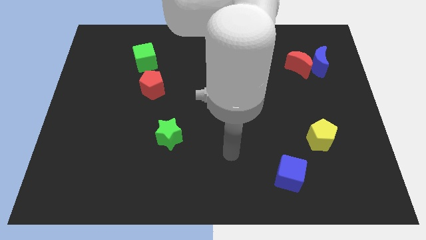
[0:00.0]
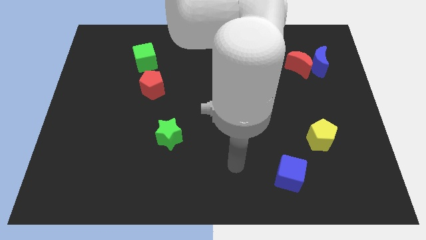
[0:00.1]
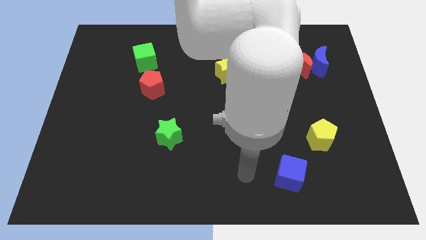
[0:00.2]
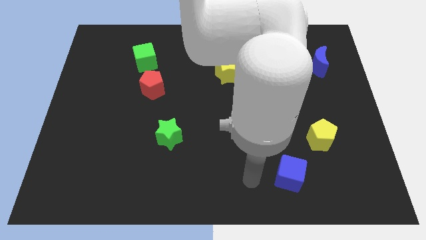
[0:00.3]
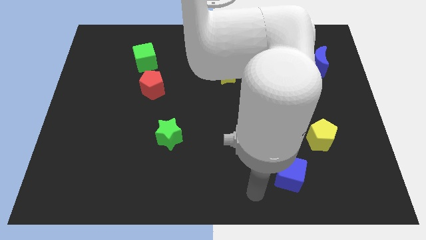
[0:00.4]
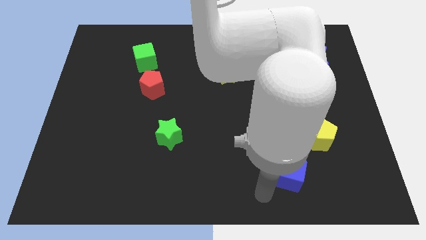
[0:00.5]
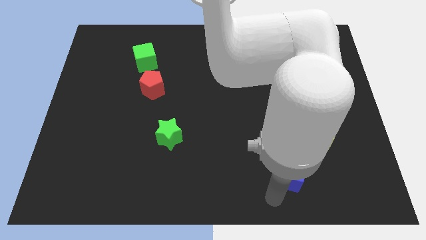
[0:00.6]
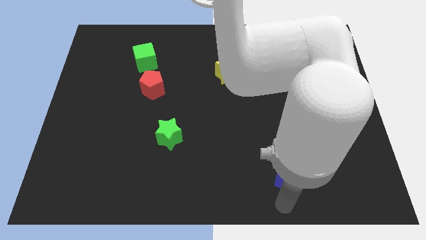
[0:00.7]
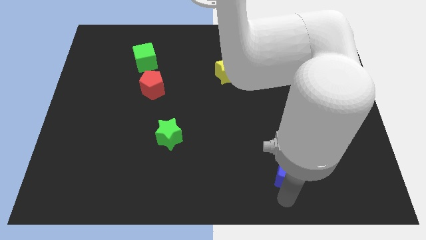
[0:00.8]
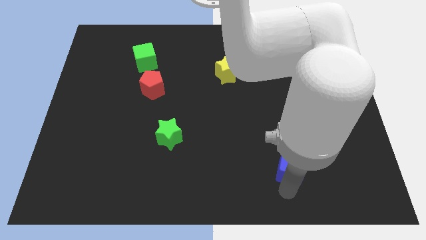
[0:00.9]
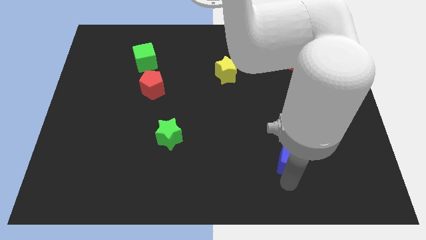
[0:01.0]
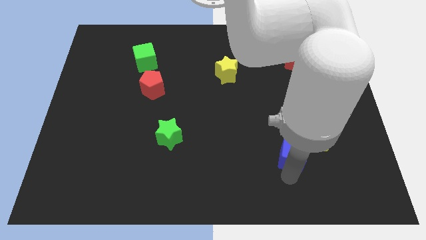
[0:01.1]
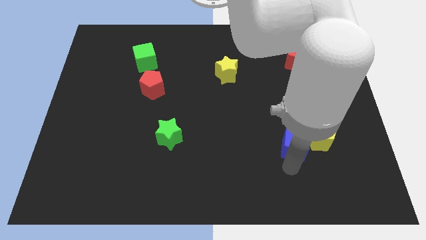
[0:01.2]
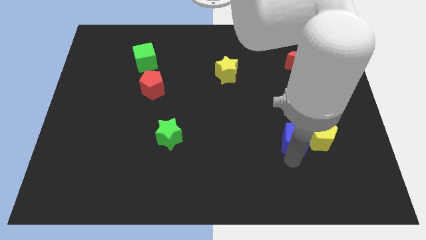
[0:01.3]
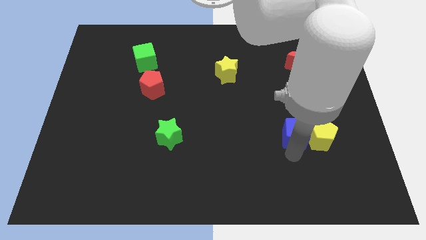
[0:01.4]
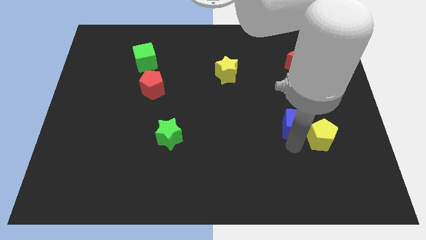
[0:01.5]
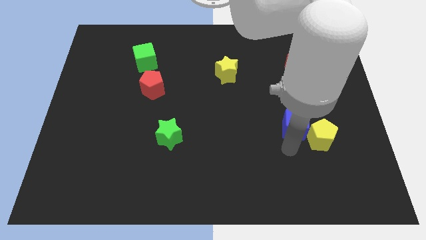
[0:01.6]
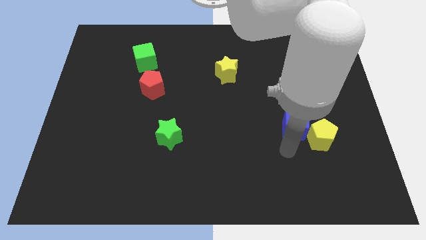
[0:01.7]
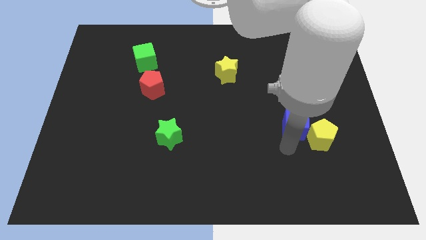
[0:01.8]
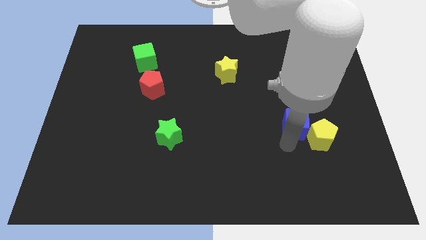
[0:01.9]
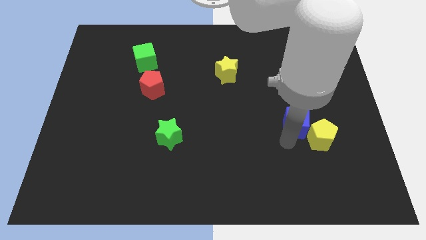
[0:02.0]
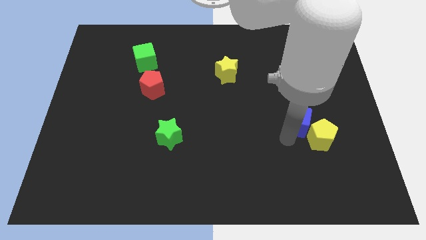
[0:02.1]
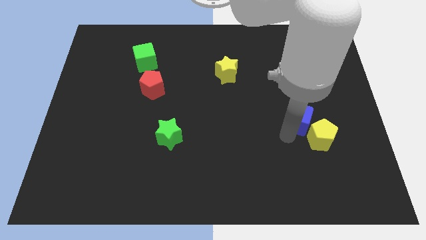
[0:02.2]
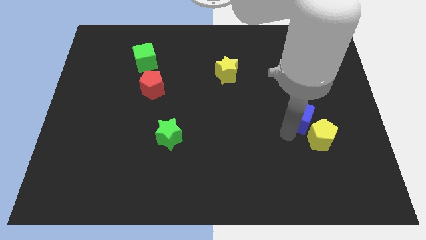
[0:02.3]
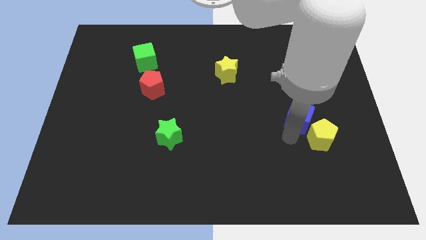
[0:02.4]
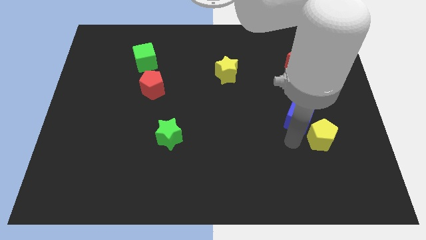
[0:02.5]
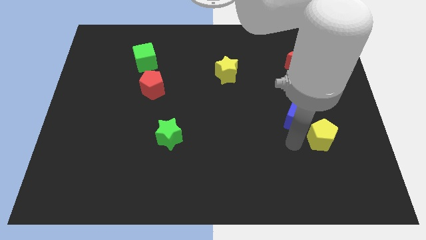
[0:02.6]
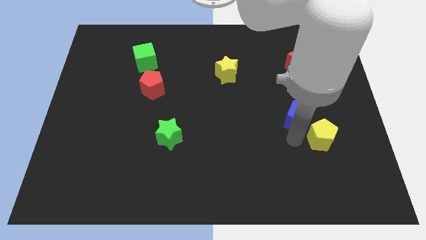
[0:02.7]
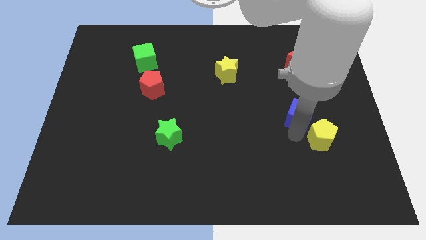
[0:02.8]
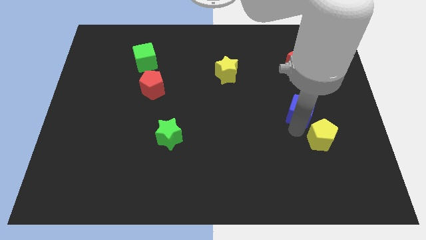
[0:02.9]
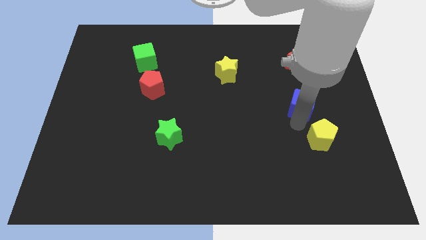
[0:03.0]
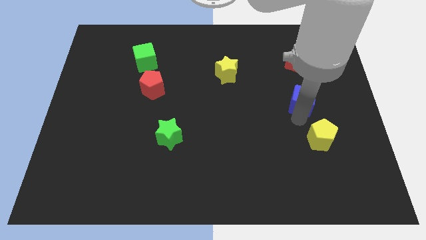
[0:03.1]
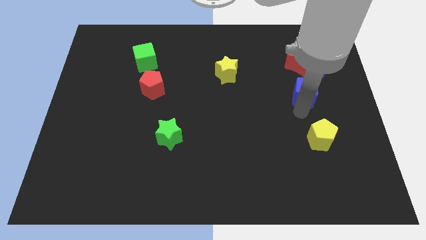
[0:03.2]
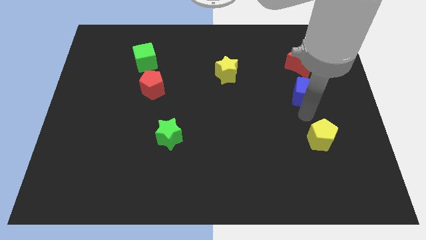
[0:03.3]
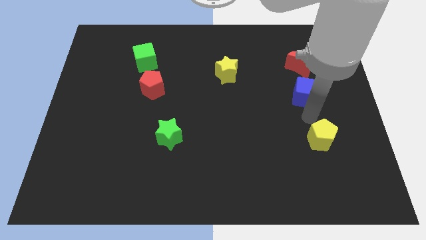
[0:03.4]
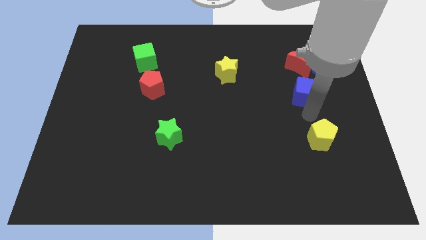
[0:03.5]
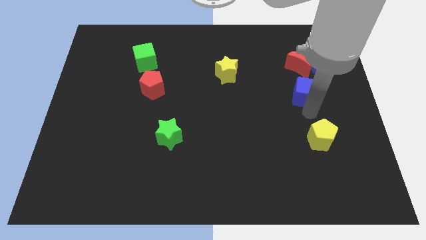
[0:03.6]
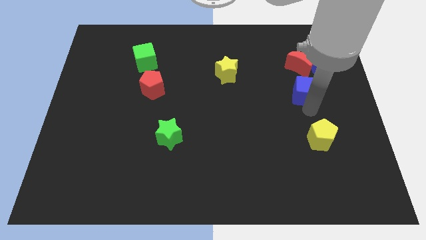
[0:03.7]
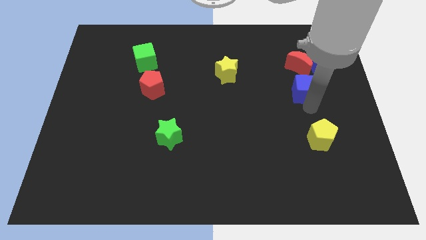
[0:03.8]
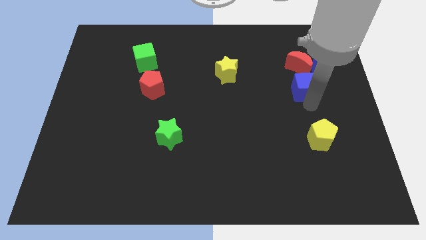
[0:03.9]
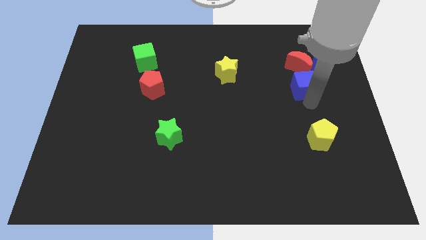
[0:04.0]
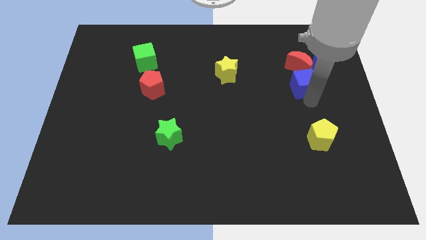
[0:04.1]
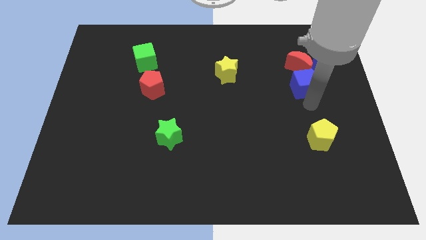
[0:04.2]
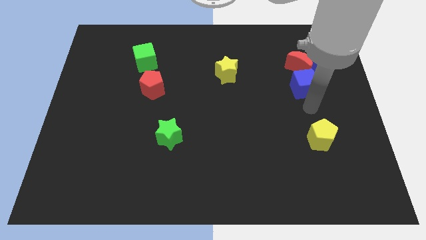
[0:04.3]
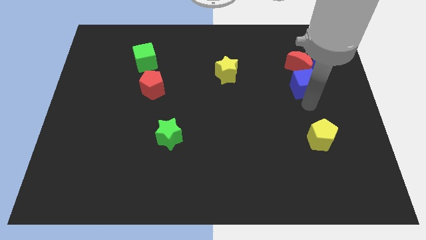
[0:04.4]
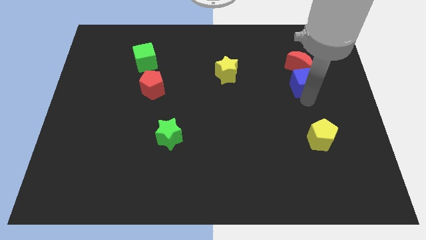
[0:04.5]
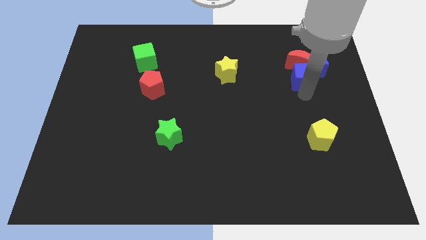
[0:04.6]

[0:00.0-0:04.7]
move the blue cube close to the red moon

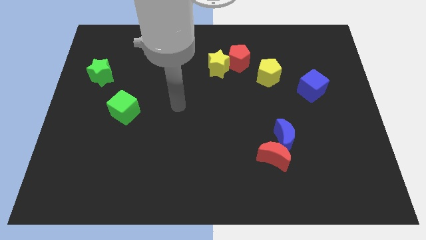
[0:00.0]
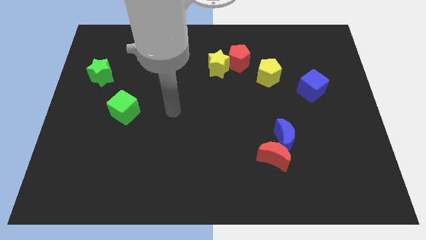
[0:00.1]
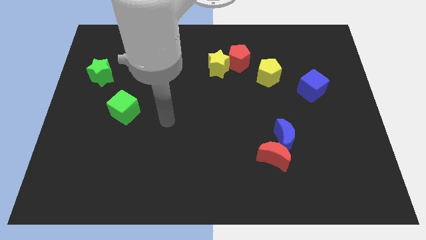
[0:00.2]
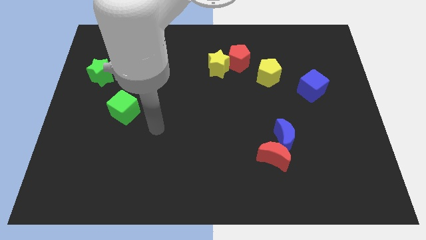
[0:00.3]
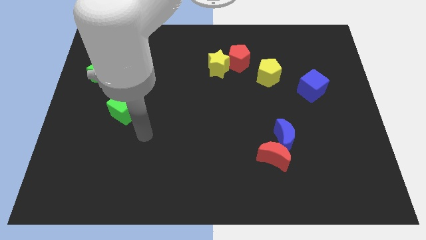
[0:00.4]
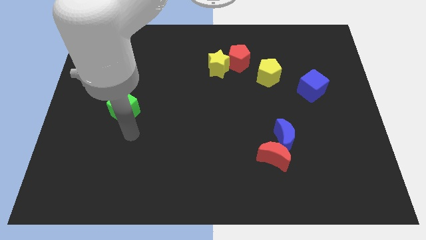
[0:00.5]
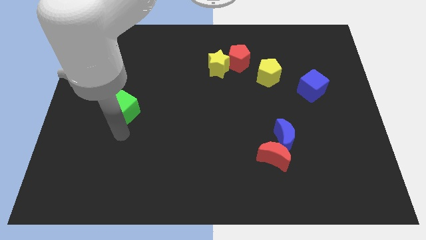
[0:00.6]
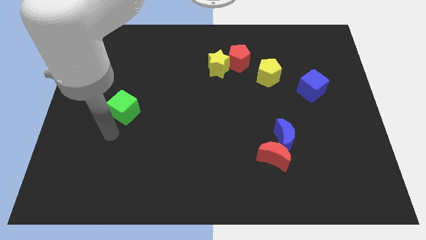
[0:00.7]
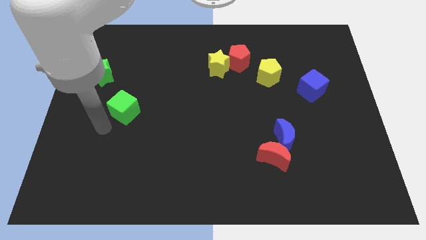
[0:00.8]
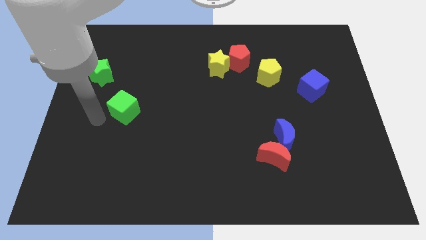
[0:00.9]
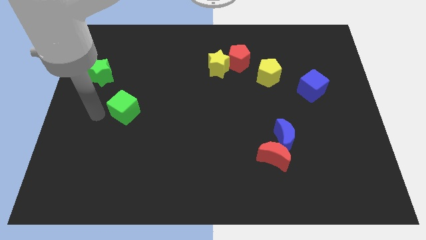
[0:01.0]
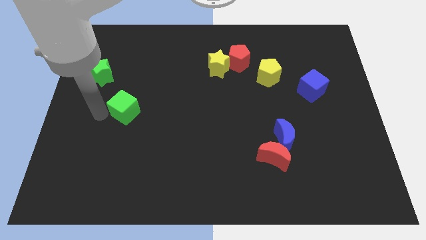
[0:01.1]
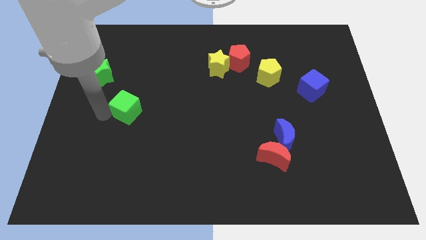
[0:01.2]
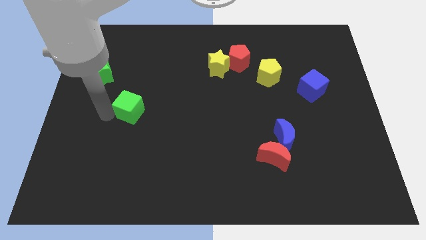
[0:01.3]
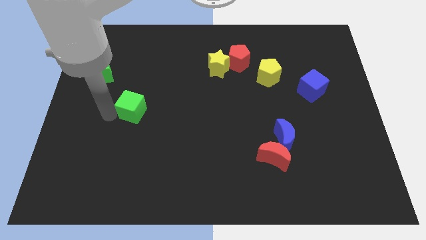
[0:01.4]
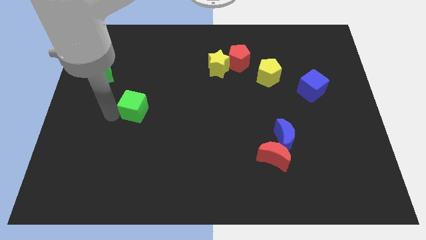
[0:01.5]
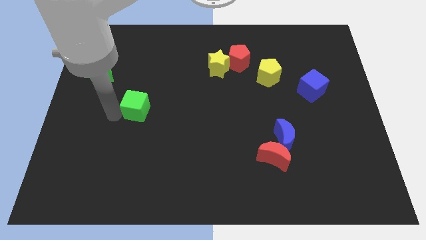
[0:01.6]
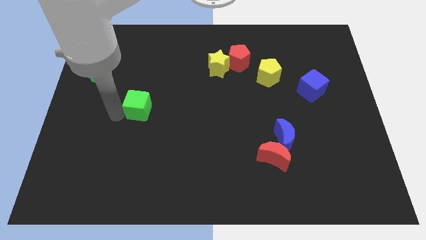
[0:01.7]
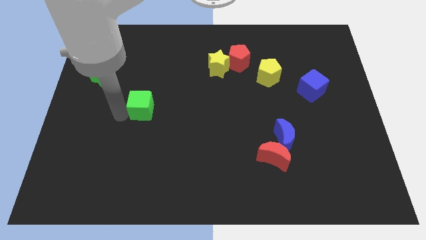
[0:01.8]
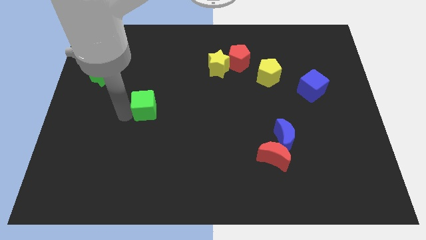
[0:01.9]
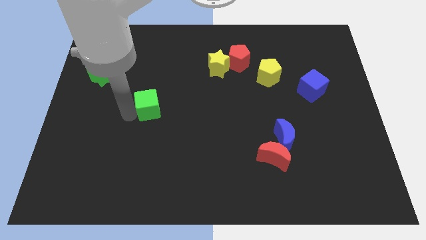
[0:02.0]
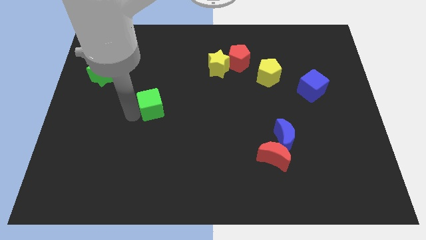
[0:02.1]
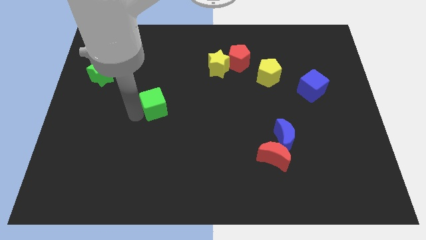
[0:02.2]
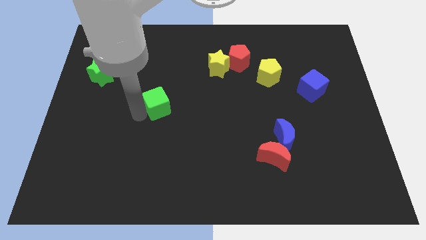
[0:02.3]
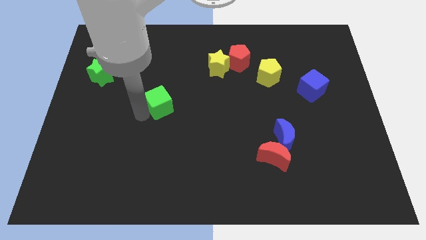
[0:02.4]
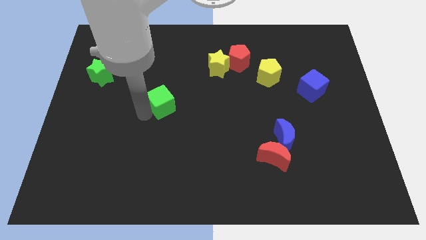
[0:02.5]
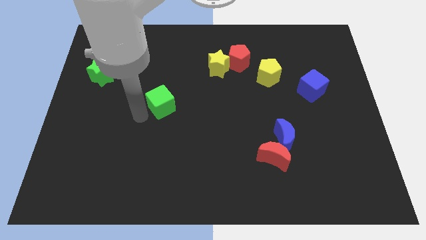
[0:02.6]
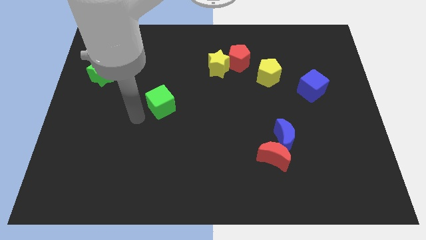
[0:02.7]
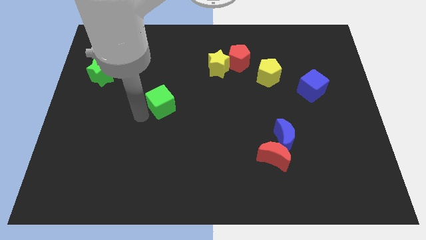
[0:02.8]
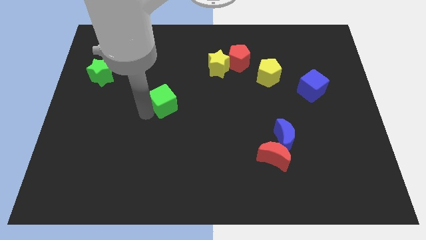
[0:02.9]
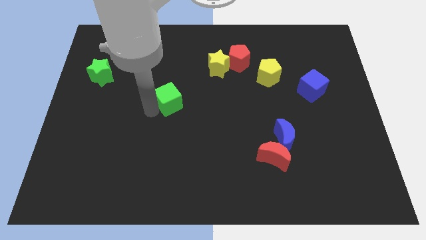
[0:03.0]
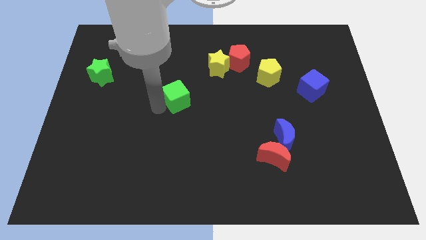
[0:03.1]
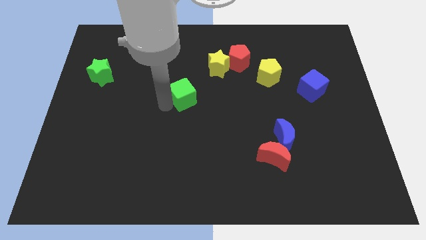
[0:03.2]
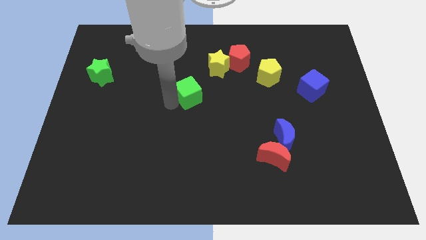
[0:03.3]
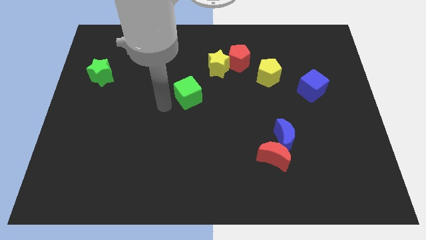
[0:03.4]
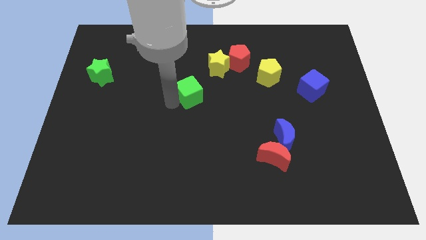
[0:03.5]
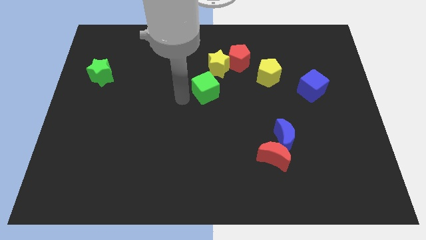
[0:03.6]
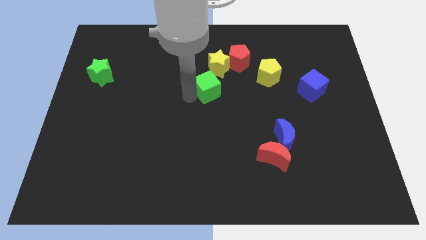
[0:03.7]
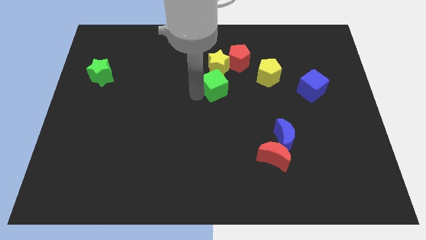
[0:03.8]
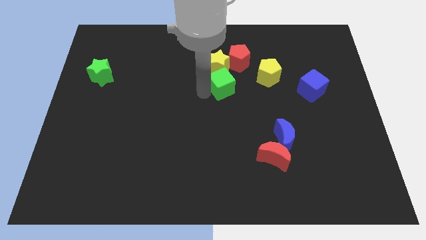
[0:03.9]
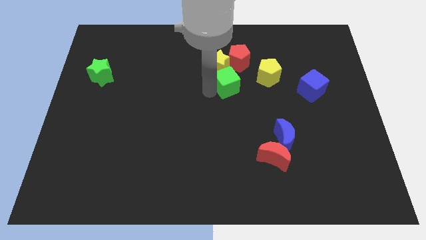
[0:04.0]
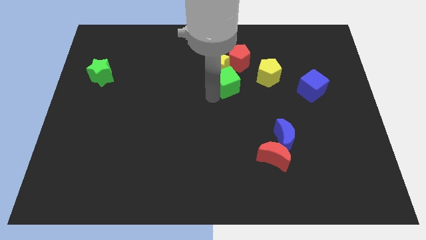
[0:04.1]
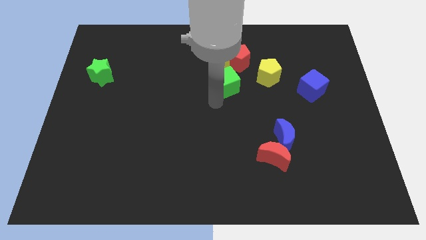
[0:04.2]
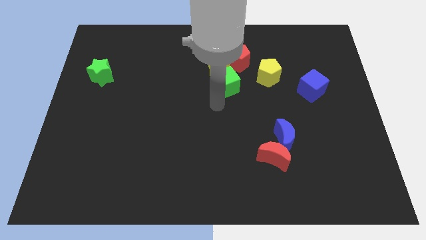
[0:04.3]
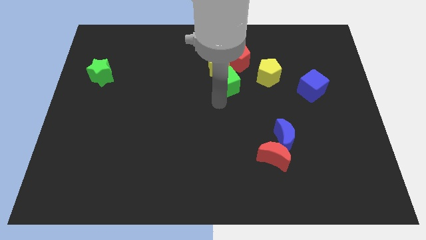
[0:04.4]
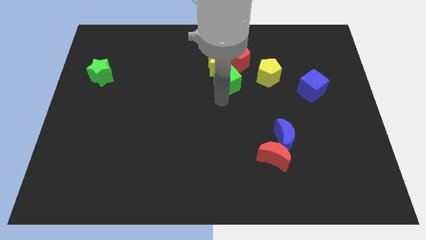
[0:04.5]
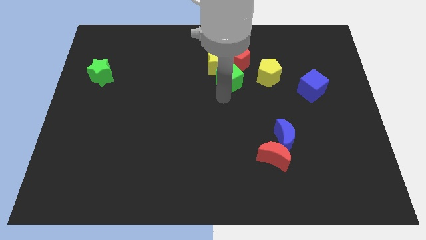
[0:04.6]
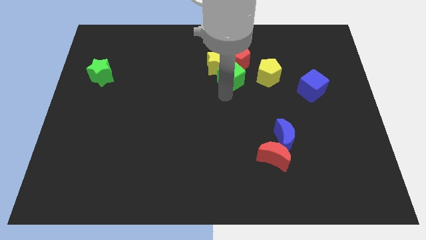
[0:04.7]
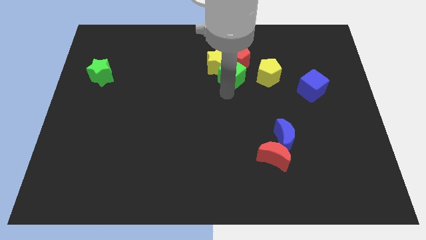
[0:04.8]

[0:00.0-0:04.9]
move the green cube to the red pentagon
